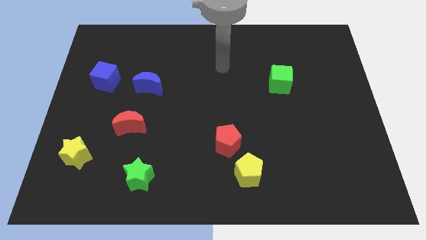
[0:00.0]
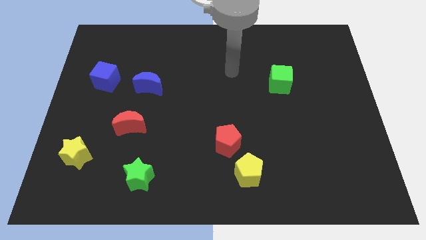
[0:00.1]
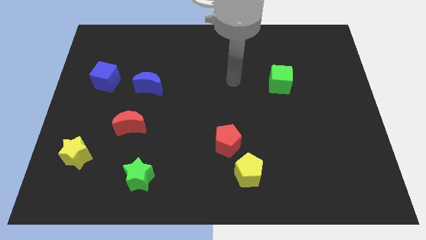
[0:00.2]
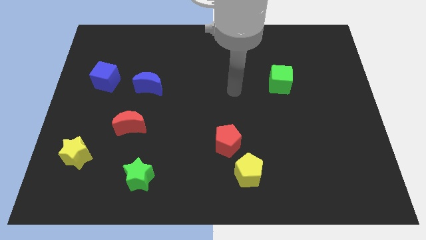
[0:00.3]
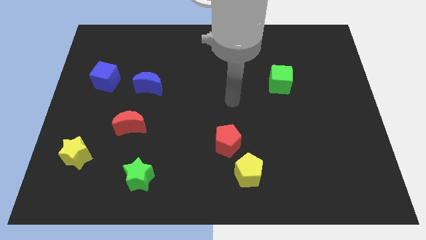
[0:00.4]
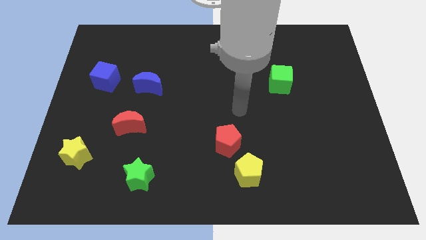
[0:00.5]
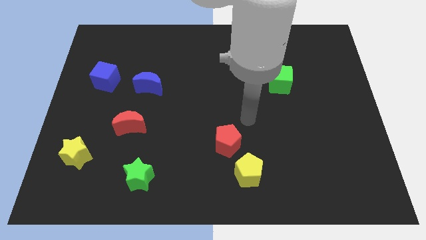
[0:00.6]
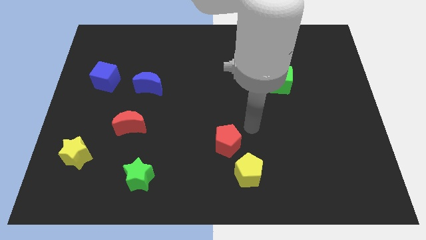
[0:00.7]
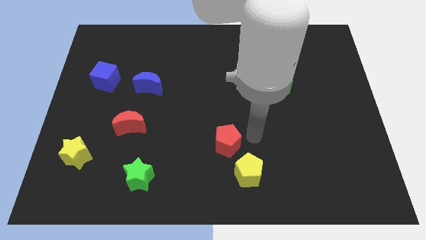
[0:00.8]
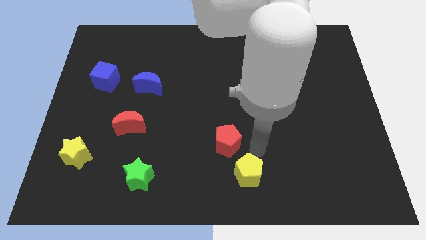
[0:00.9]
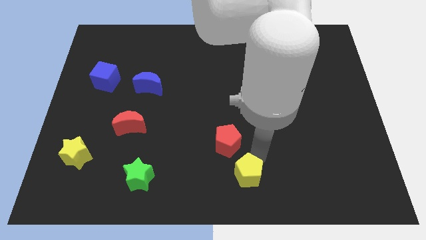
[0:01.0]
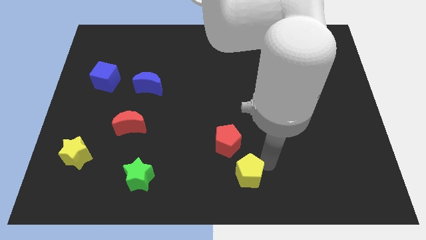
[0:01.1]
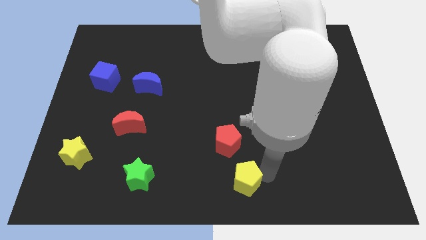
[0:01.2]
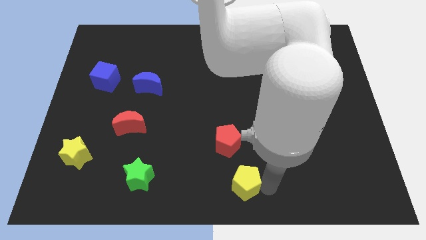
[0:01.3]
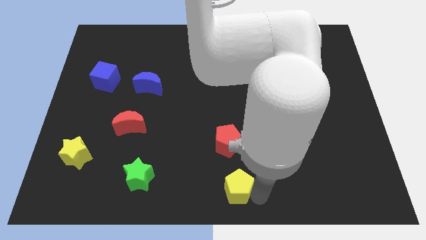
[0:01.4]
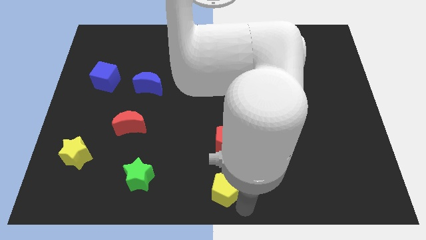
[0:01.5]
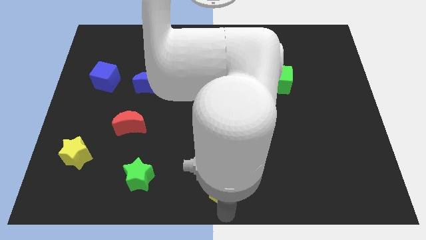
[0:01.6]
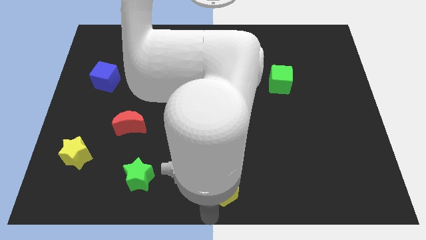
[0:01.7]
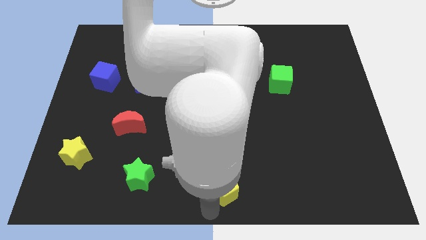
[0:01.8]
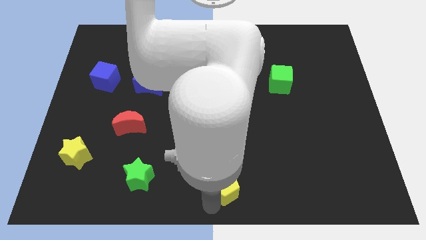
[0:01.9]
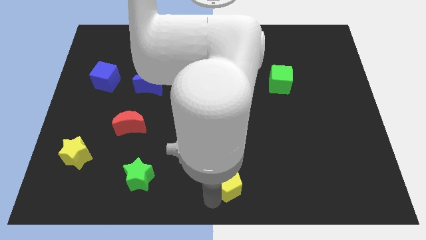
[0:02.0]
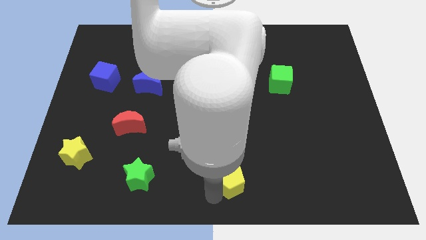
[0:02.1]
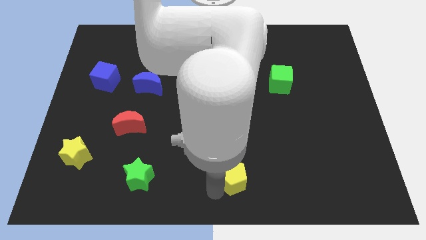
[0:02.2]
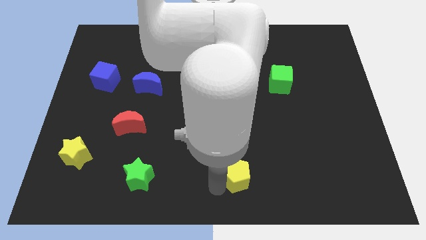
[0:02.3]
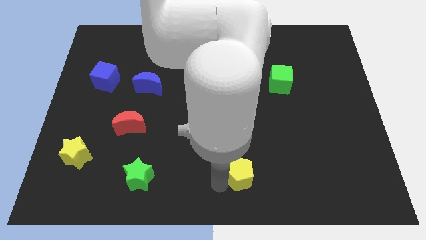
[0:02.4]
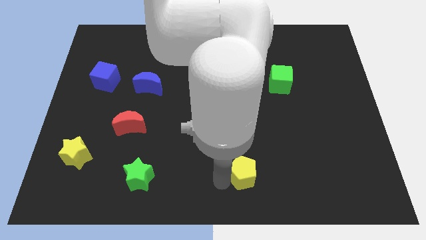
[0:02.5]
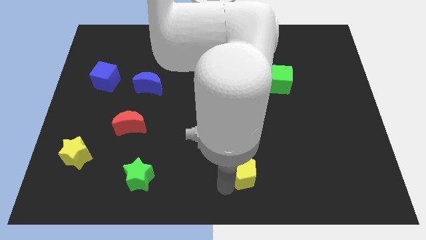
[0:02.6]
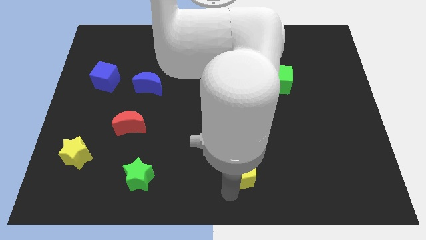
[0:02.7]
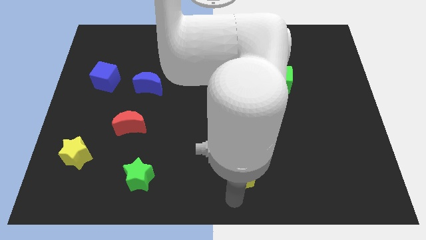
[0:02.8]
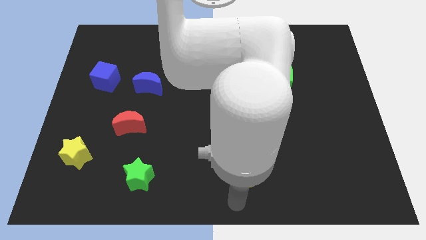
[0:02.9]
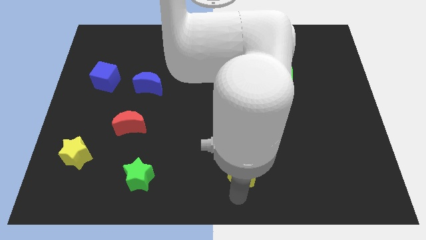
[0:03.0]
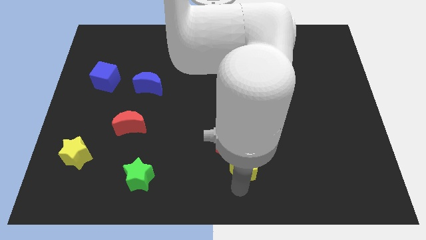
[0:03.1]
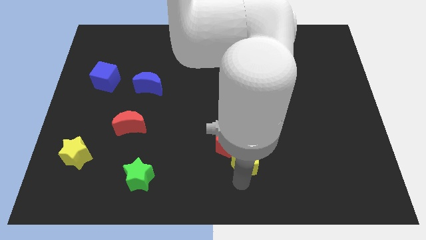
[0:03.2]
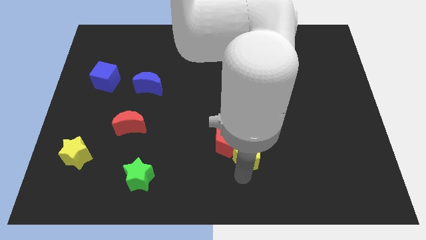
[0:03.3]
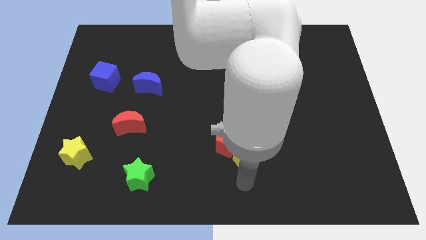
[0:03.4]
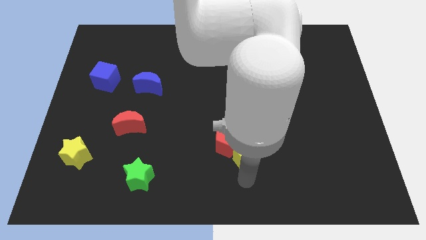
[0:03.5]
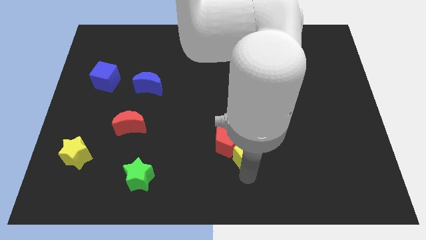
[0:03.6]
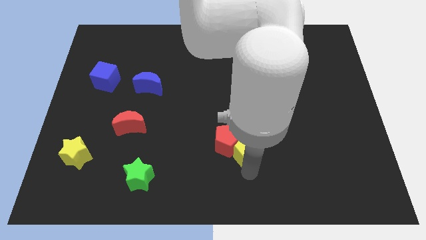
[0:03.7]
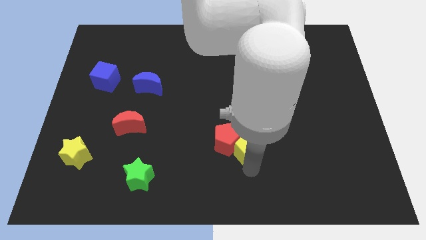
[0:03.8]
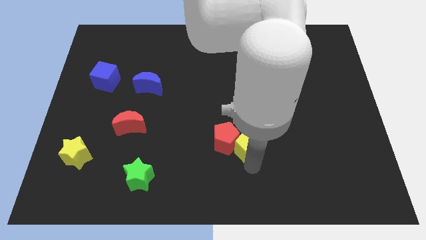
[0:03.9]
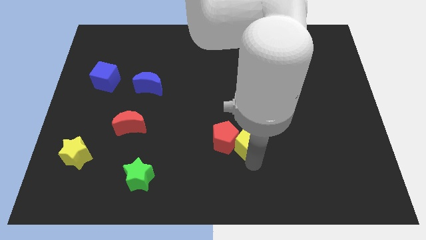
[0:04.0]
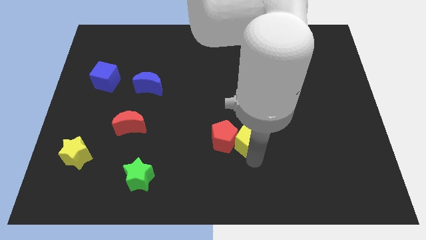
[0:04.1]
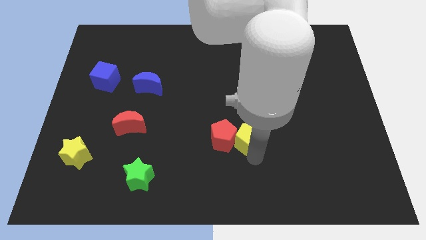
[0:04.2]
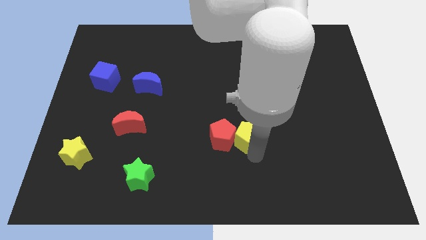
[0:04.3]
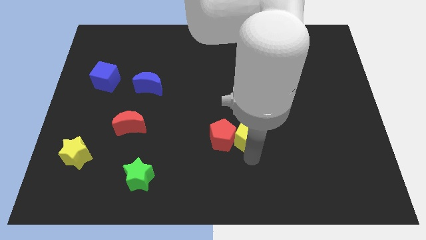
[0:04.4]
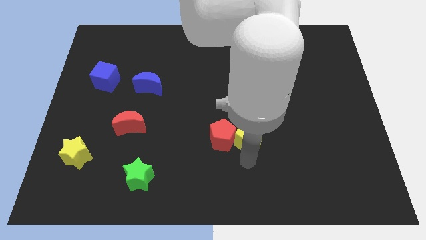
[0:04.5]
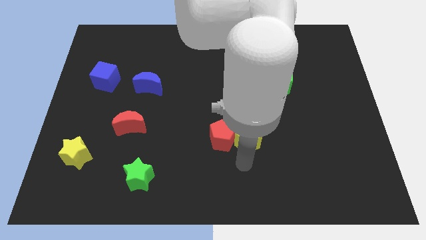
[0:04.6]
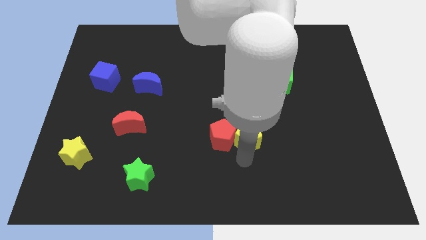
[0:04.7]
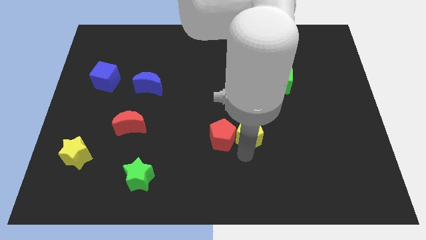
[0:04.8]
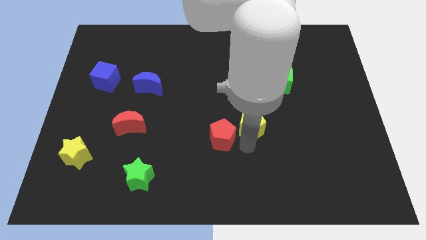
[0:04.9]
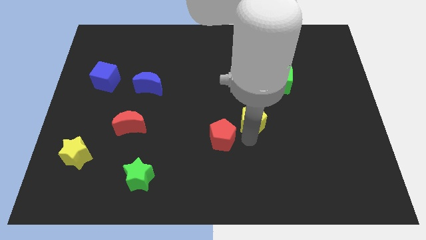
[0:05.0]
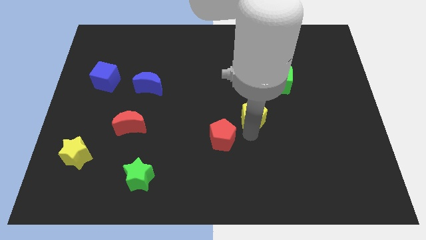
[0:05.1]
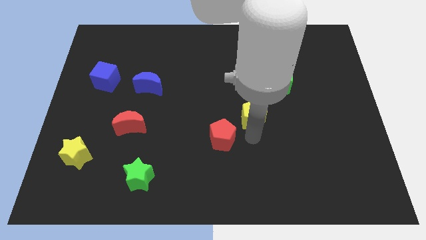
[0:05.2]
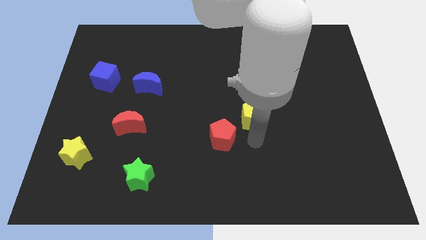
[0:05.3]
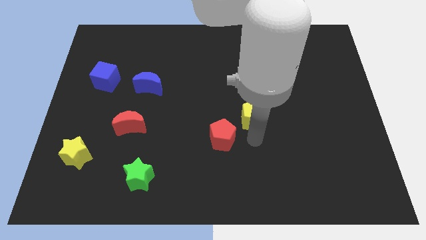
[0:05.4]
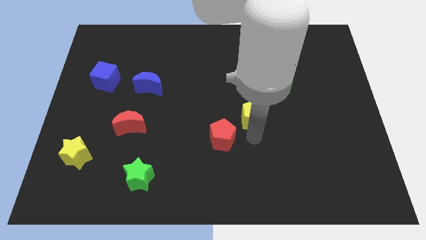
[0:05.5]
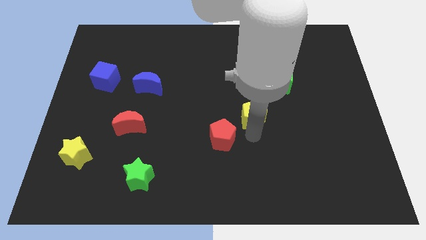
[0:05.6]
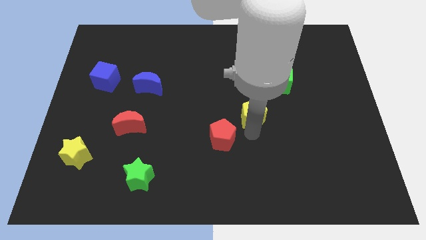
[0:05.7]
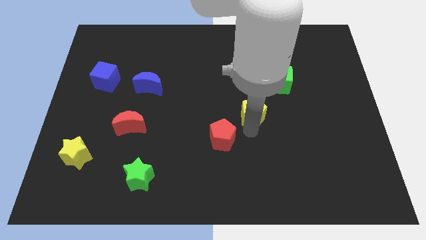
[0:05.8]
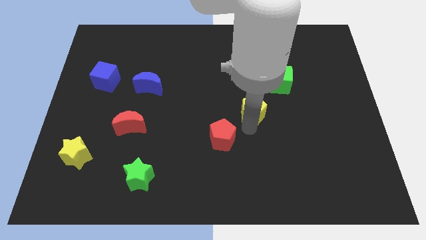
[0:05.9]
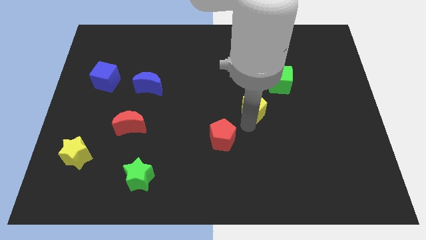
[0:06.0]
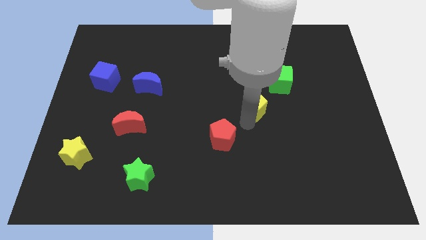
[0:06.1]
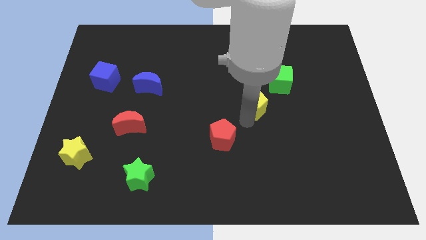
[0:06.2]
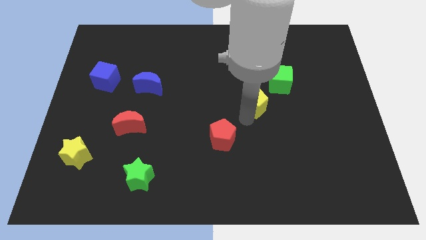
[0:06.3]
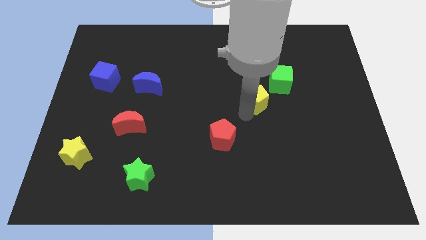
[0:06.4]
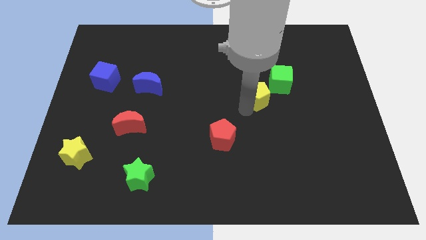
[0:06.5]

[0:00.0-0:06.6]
slide the yellow pentagon up

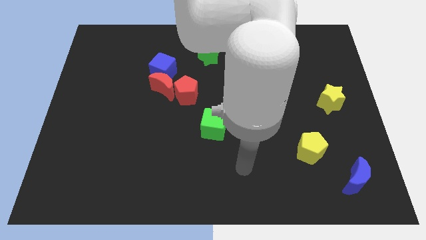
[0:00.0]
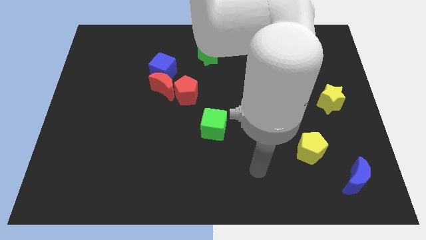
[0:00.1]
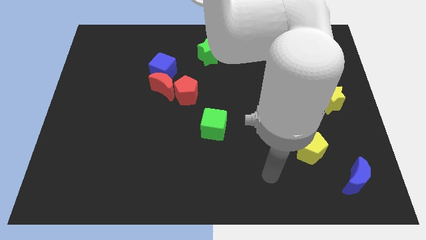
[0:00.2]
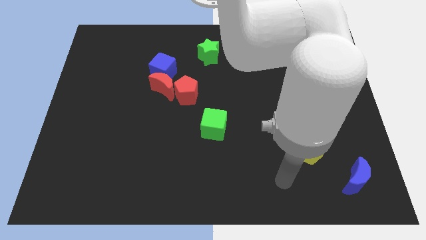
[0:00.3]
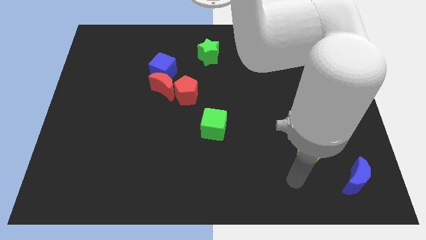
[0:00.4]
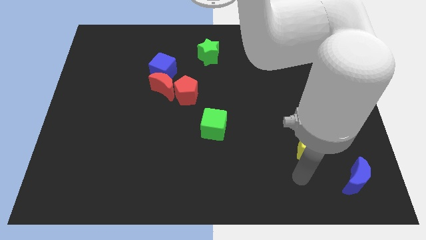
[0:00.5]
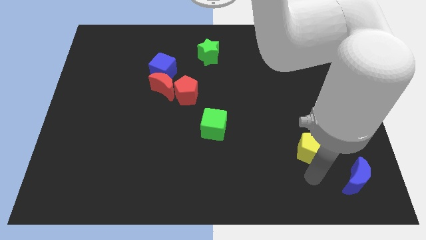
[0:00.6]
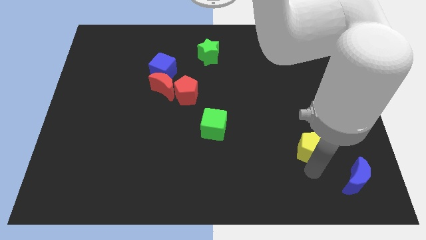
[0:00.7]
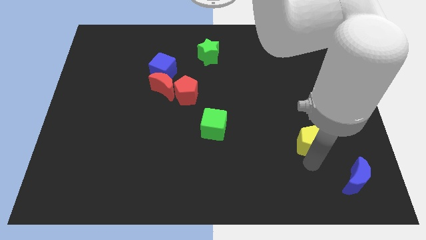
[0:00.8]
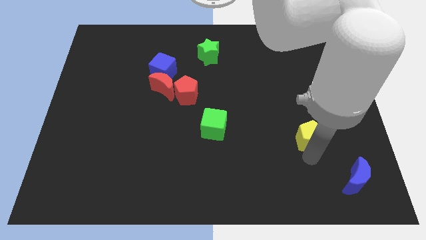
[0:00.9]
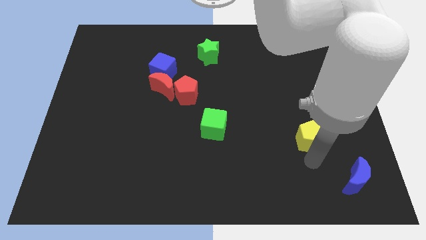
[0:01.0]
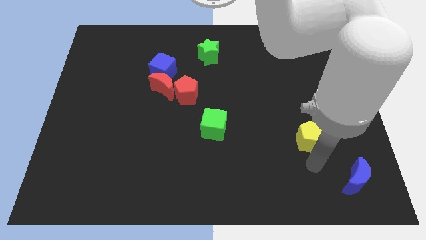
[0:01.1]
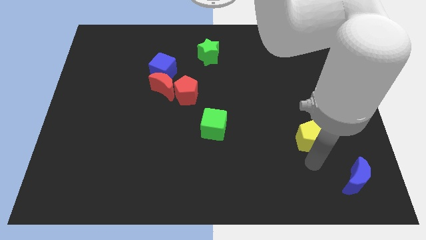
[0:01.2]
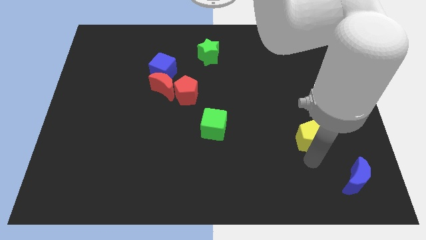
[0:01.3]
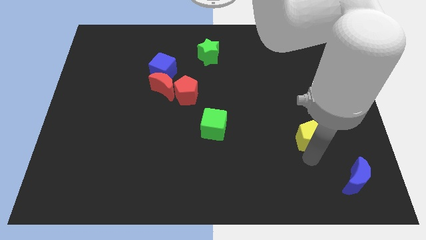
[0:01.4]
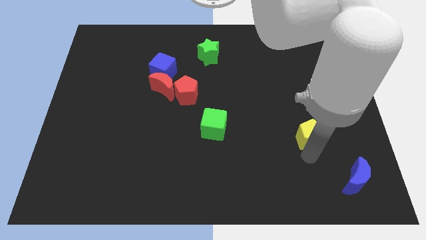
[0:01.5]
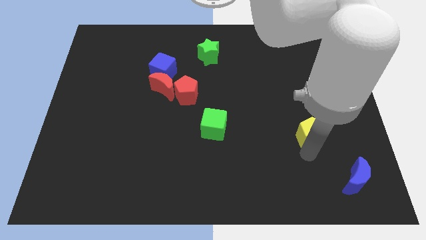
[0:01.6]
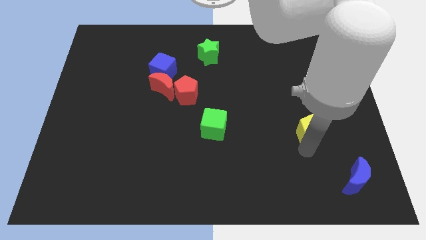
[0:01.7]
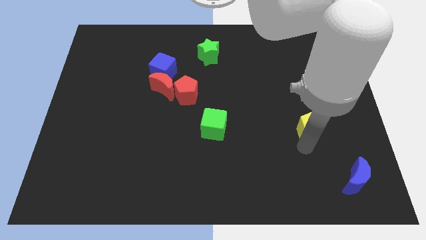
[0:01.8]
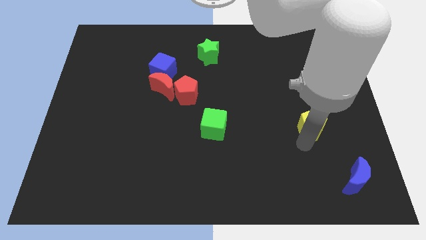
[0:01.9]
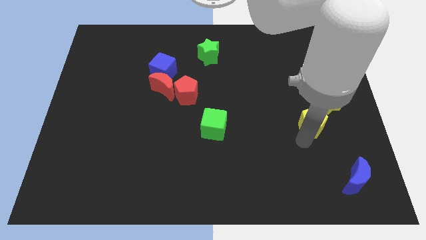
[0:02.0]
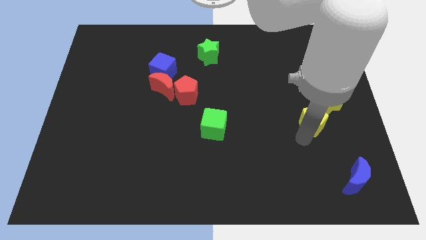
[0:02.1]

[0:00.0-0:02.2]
slightly move the yellow pentagon upwards
